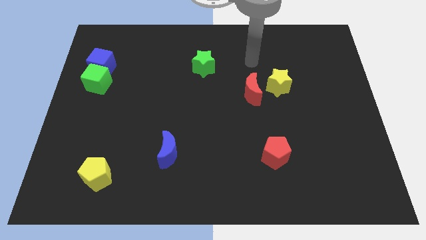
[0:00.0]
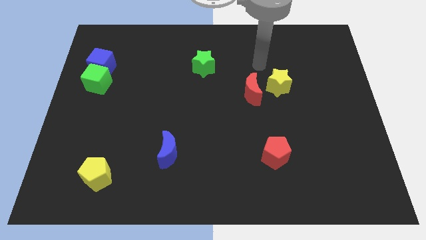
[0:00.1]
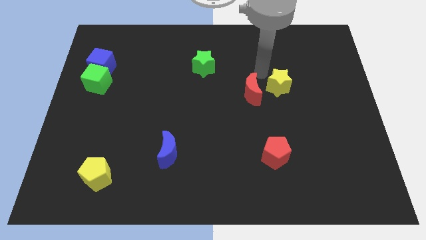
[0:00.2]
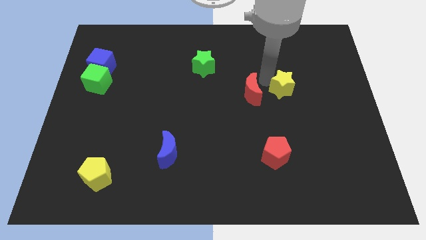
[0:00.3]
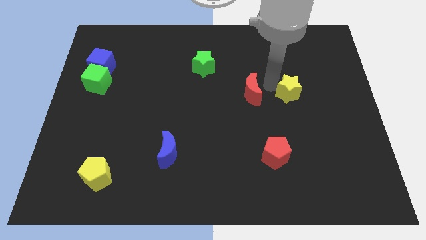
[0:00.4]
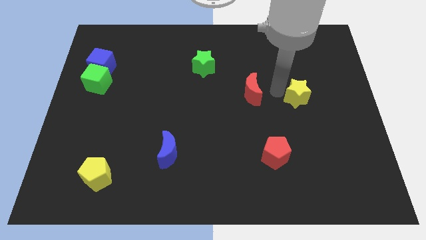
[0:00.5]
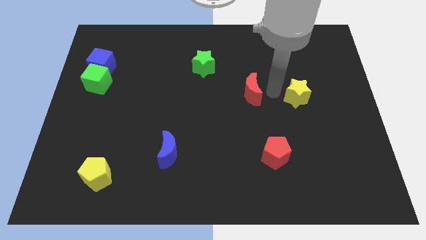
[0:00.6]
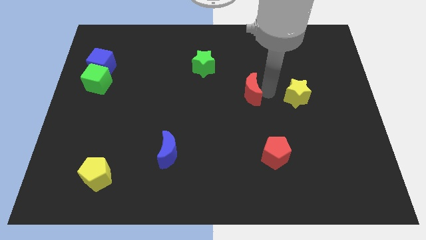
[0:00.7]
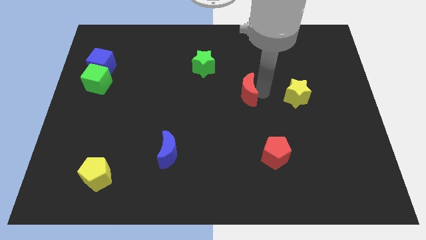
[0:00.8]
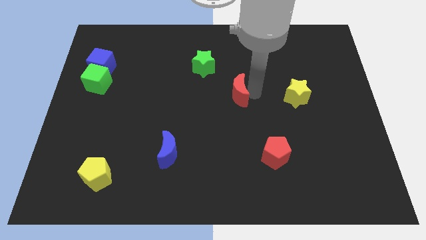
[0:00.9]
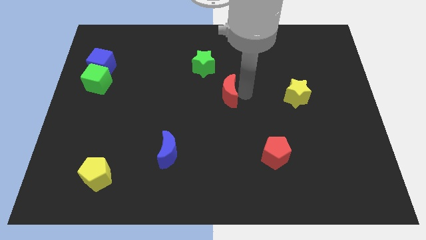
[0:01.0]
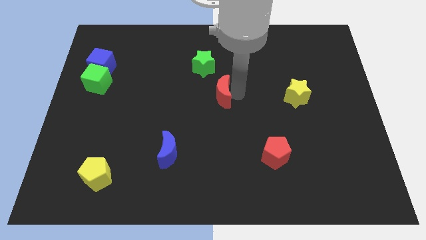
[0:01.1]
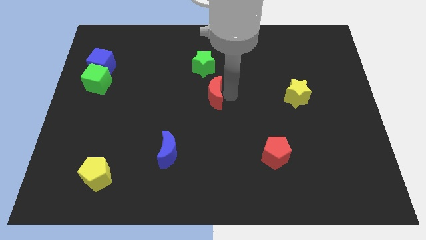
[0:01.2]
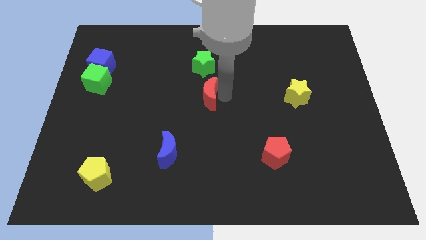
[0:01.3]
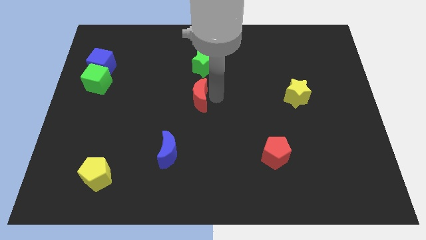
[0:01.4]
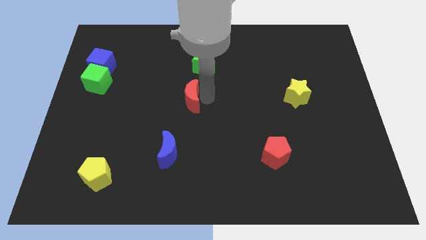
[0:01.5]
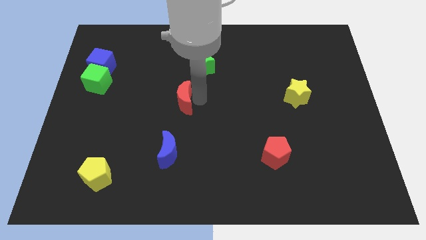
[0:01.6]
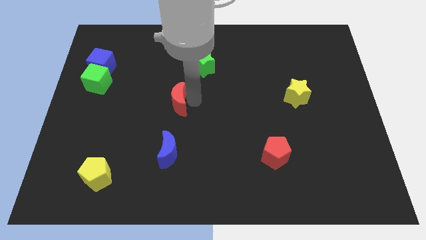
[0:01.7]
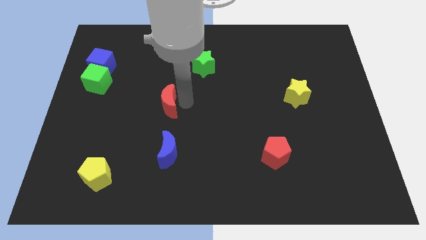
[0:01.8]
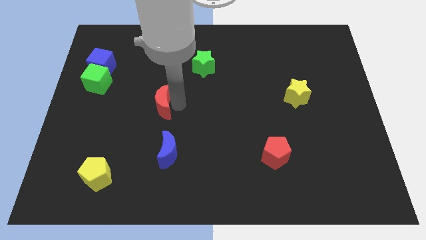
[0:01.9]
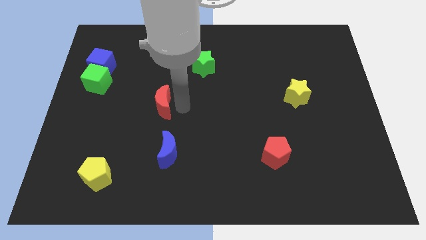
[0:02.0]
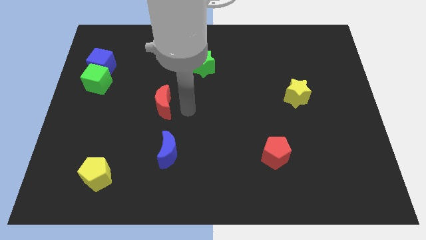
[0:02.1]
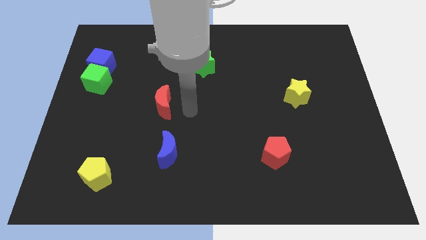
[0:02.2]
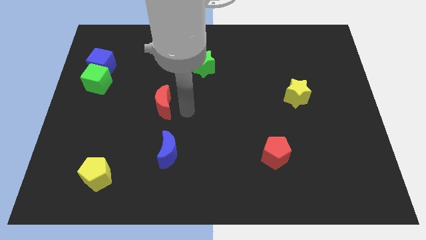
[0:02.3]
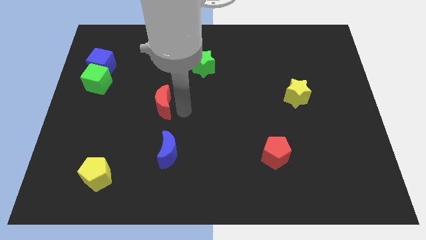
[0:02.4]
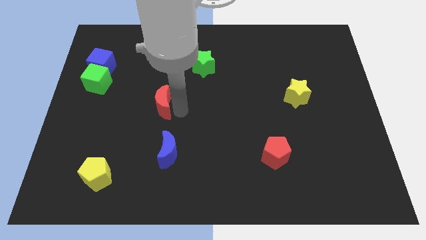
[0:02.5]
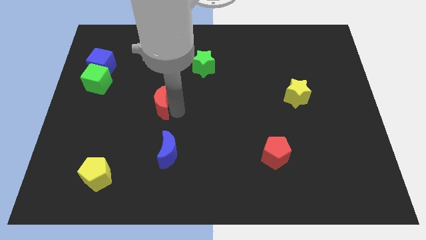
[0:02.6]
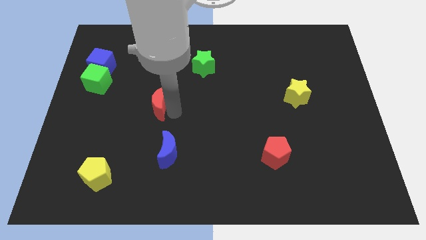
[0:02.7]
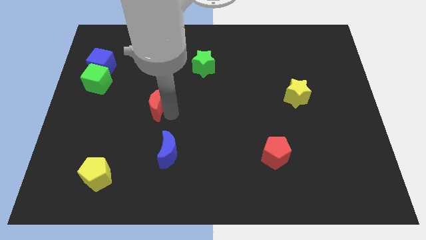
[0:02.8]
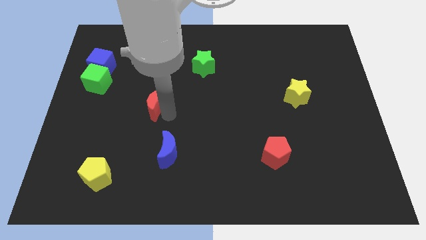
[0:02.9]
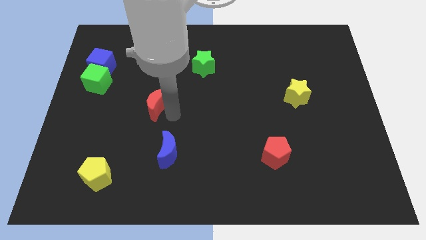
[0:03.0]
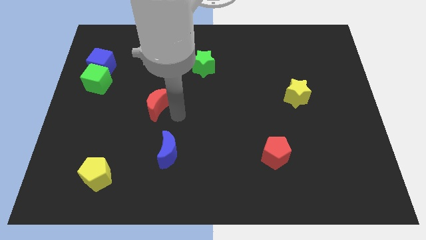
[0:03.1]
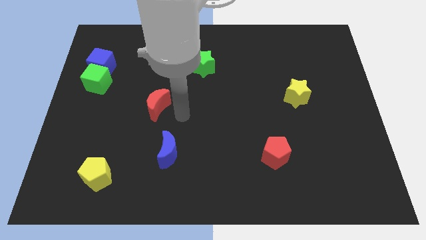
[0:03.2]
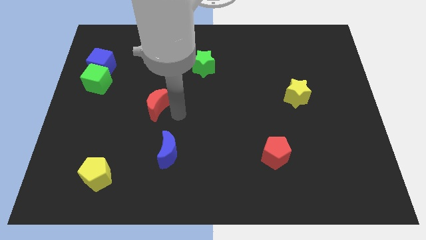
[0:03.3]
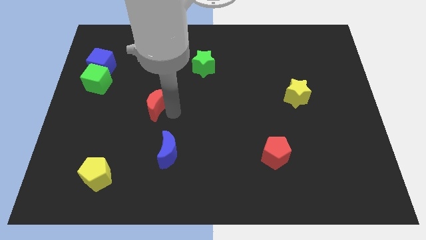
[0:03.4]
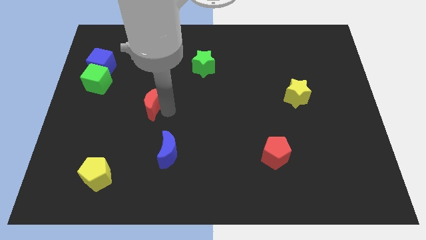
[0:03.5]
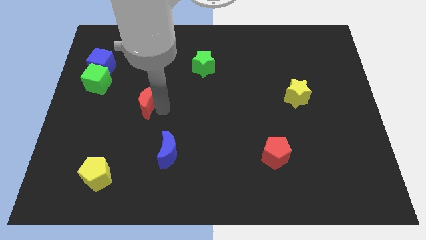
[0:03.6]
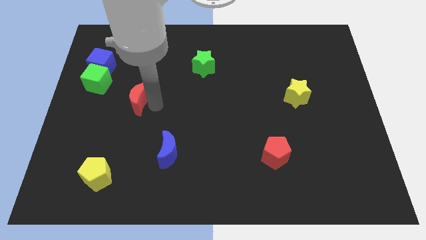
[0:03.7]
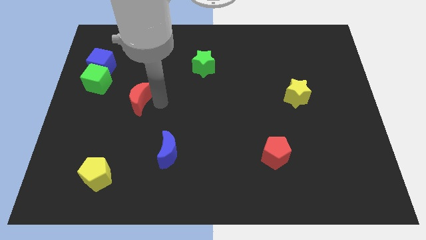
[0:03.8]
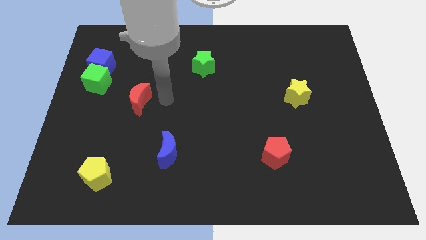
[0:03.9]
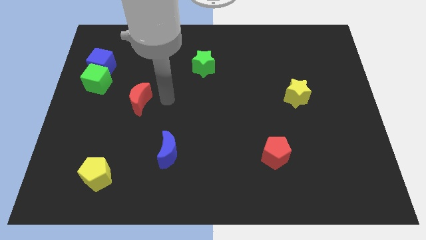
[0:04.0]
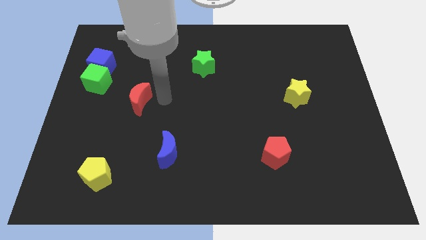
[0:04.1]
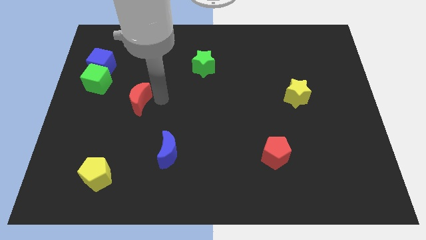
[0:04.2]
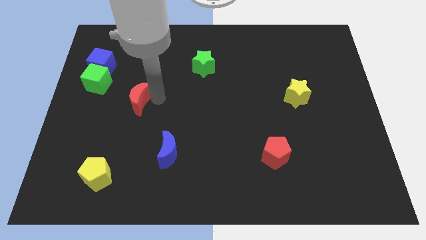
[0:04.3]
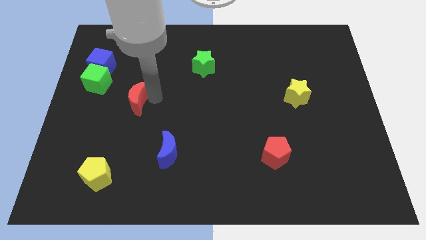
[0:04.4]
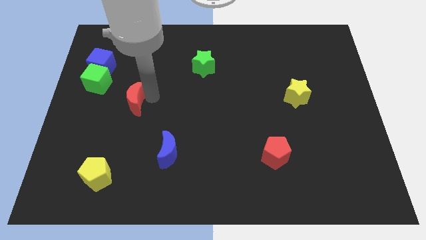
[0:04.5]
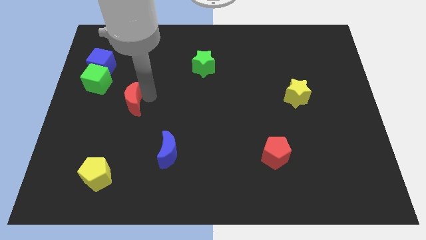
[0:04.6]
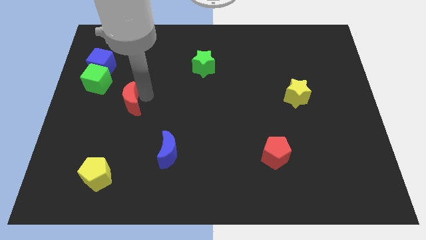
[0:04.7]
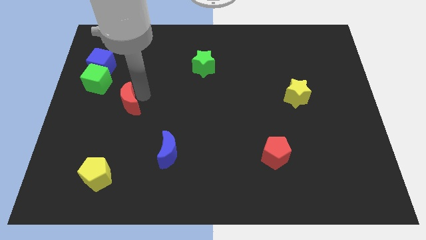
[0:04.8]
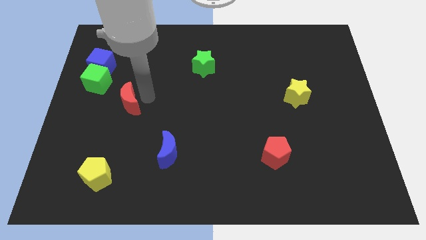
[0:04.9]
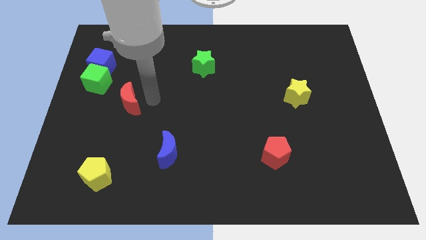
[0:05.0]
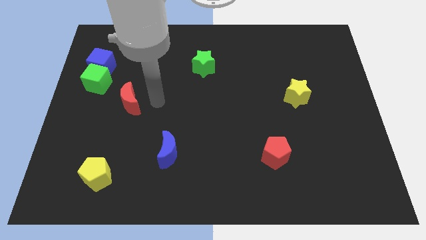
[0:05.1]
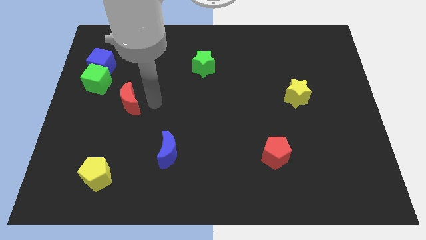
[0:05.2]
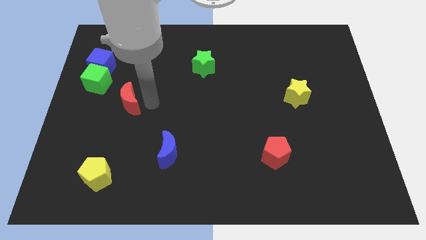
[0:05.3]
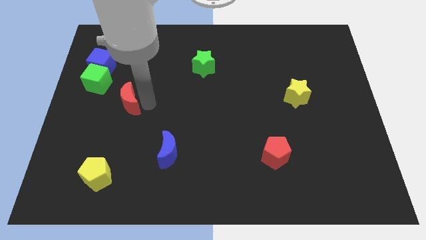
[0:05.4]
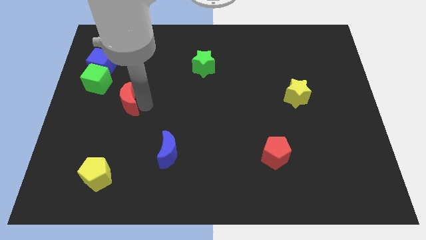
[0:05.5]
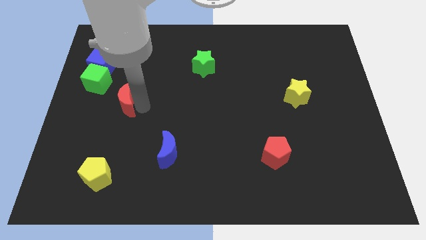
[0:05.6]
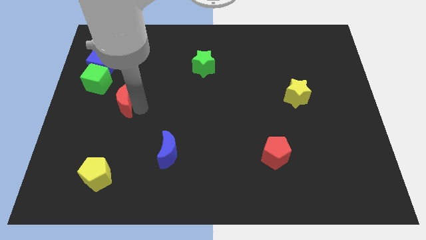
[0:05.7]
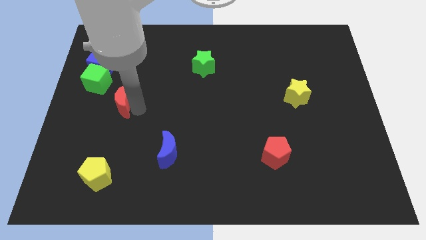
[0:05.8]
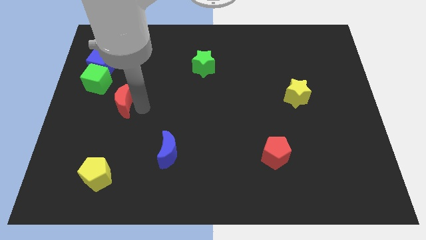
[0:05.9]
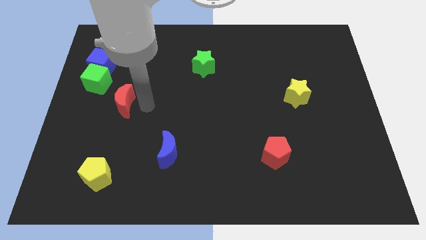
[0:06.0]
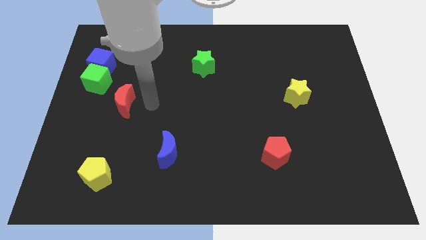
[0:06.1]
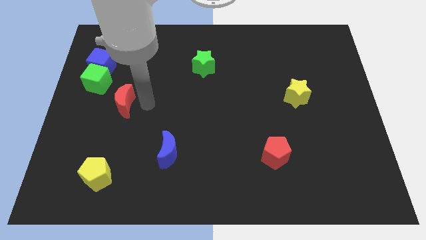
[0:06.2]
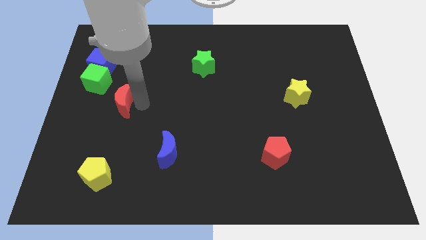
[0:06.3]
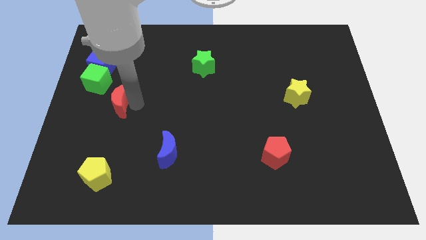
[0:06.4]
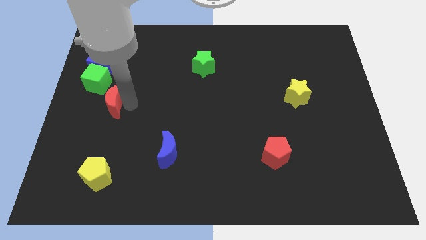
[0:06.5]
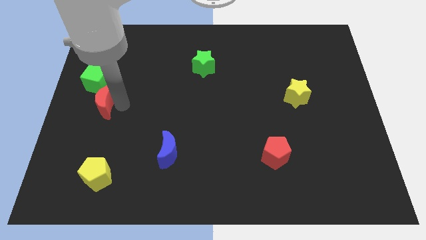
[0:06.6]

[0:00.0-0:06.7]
move the red moon to the left side of the board
